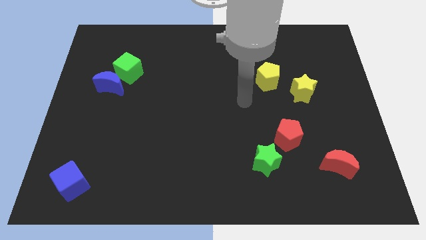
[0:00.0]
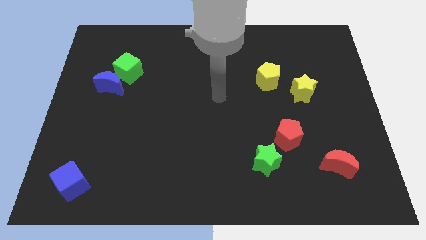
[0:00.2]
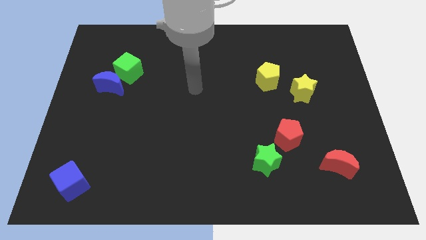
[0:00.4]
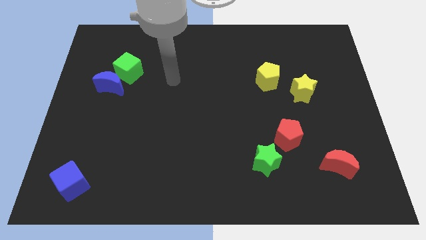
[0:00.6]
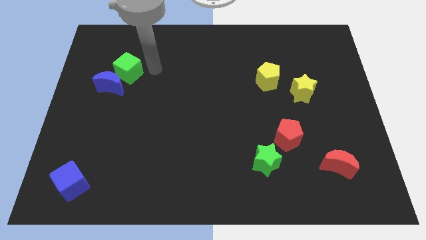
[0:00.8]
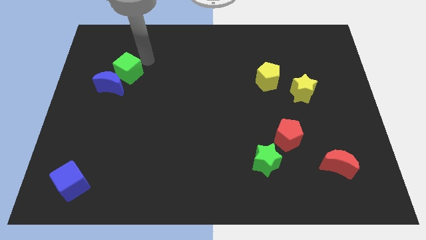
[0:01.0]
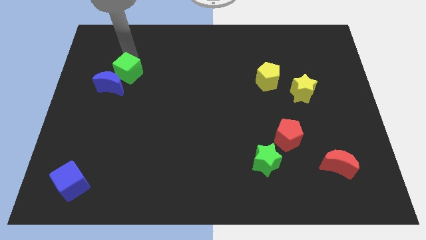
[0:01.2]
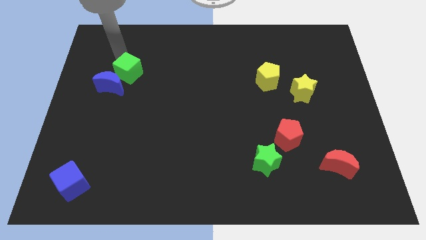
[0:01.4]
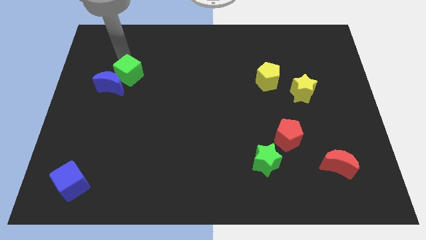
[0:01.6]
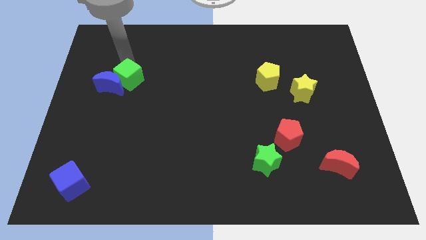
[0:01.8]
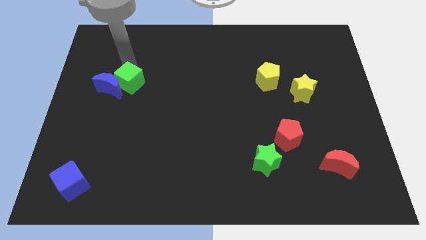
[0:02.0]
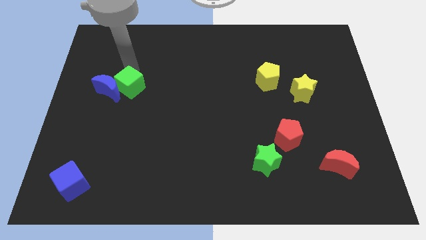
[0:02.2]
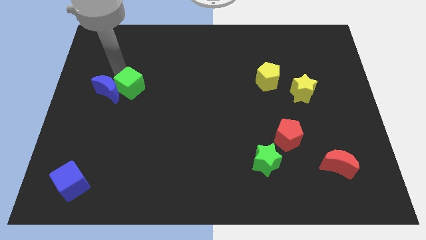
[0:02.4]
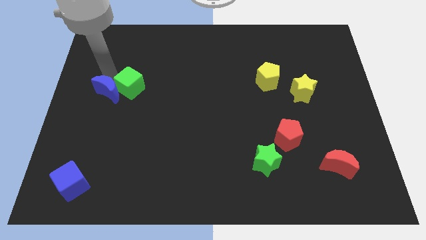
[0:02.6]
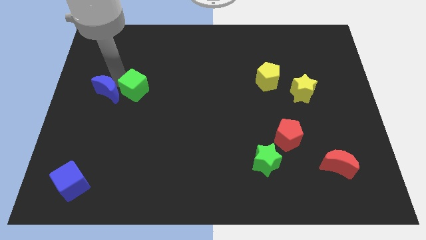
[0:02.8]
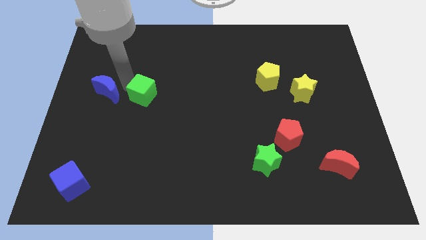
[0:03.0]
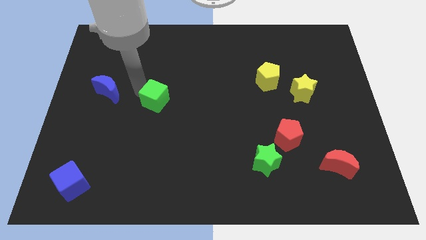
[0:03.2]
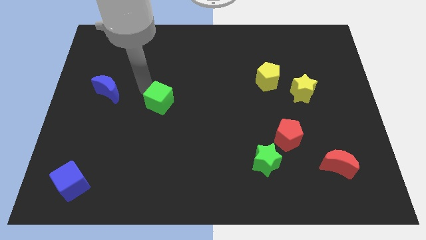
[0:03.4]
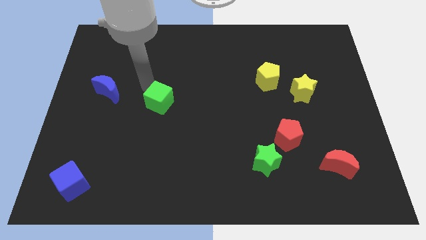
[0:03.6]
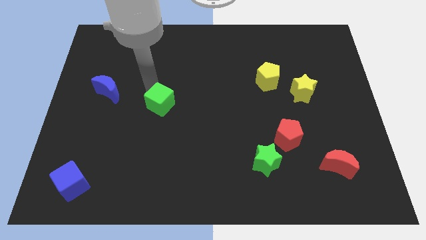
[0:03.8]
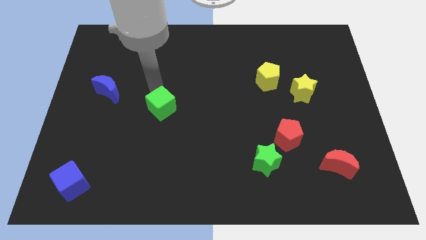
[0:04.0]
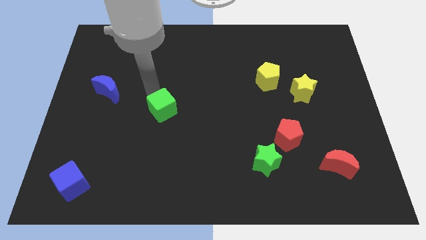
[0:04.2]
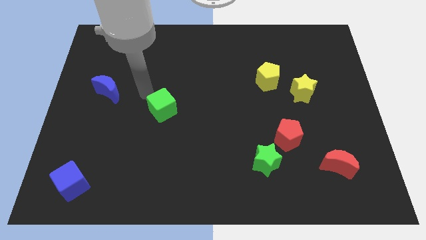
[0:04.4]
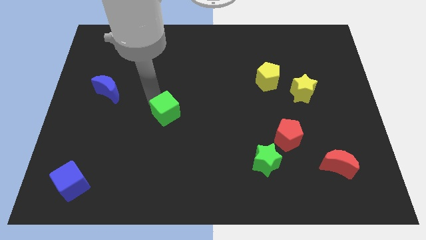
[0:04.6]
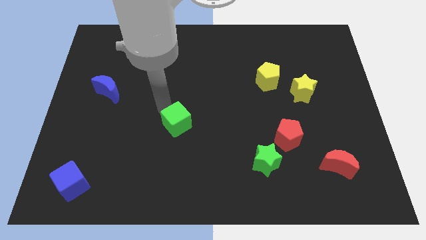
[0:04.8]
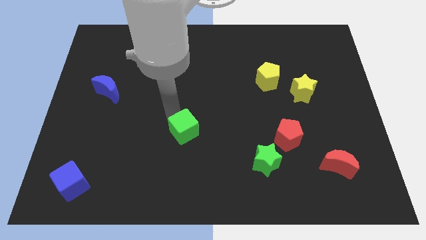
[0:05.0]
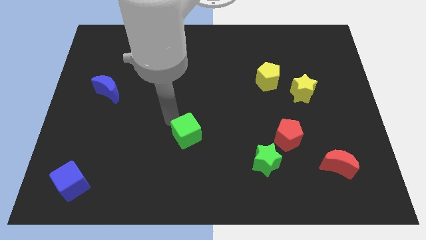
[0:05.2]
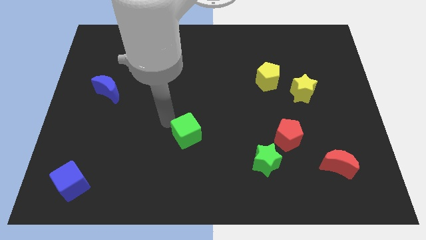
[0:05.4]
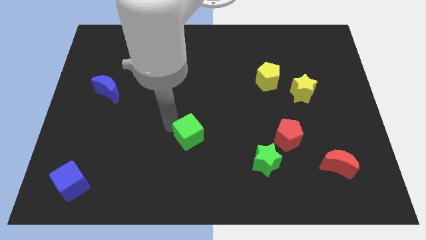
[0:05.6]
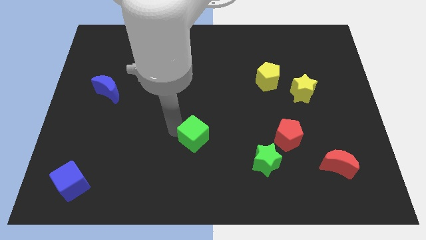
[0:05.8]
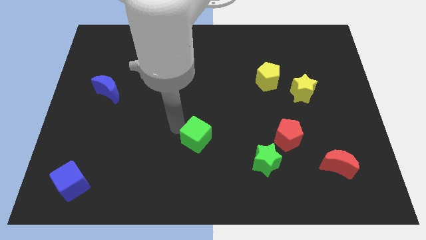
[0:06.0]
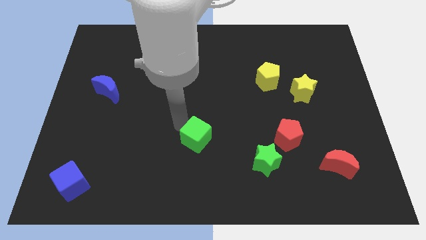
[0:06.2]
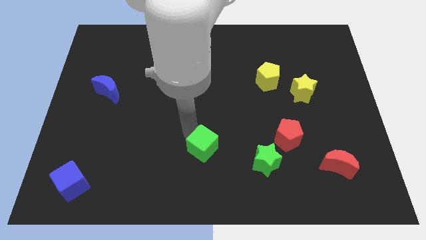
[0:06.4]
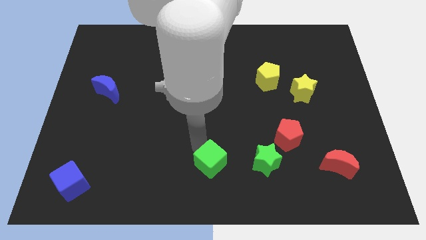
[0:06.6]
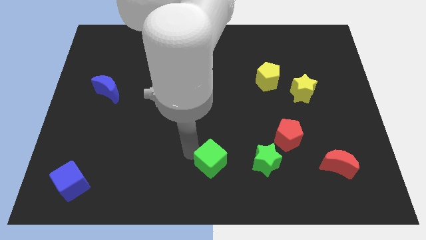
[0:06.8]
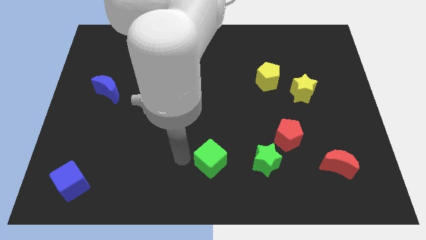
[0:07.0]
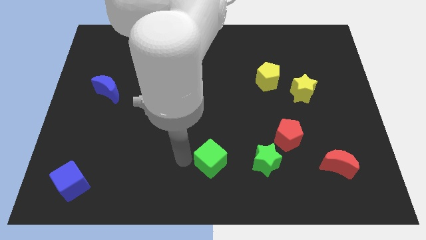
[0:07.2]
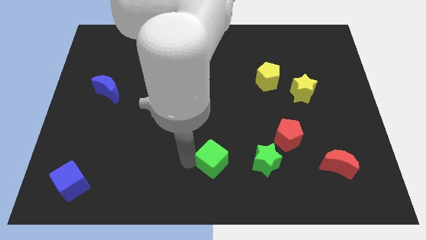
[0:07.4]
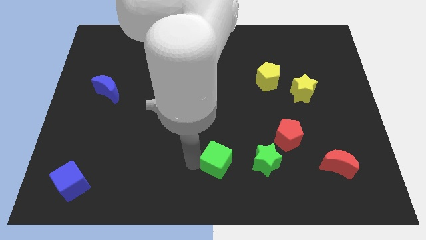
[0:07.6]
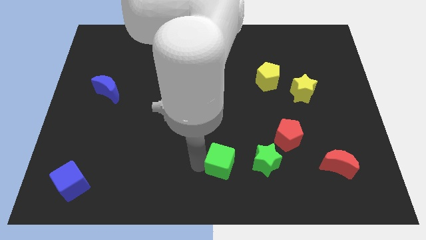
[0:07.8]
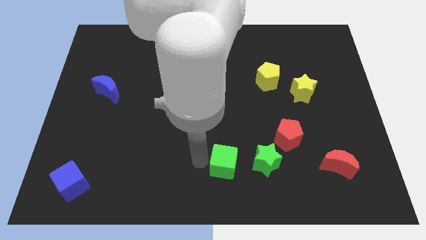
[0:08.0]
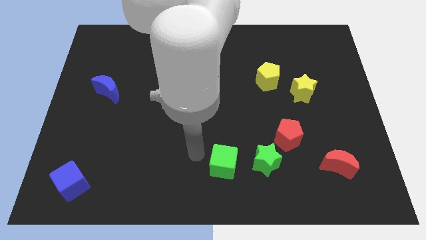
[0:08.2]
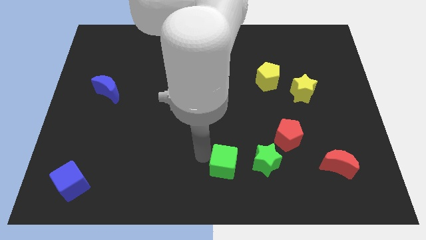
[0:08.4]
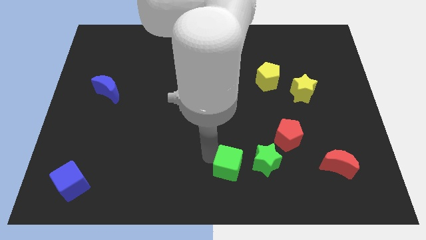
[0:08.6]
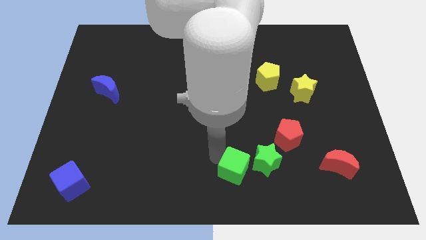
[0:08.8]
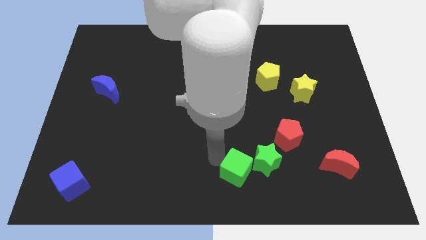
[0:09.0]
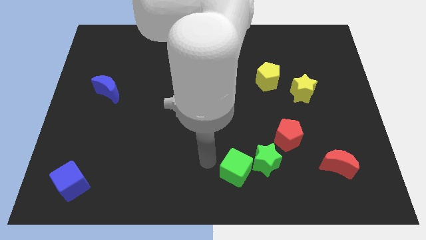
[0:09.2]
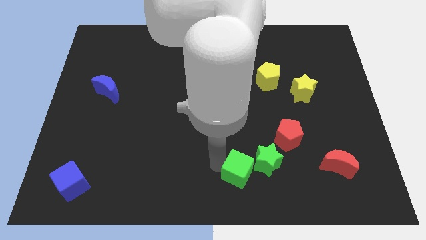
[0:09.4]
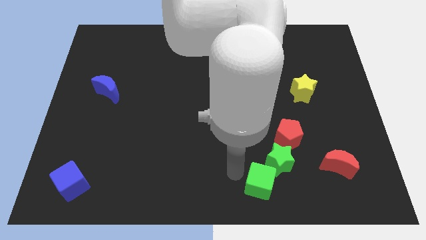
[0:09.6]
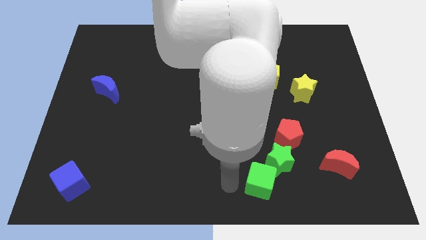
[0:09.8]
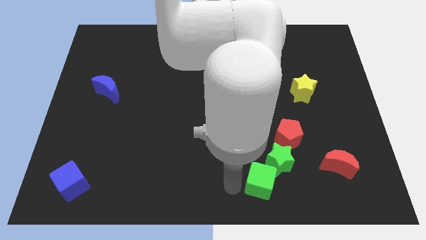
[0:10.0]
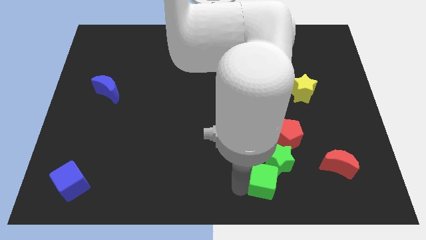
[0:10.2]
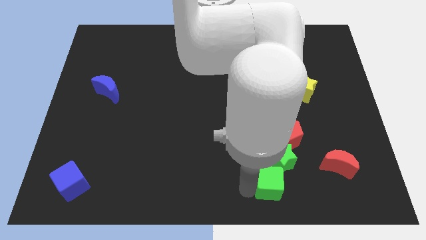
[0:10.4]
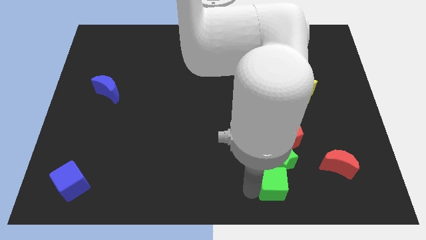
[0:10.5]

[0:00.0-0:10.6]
push the green cube below the red pentagon

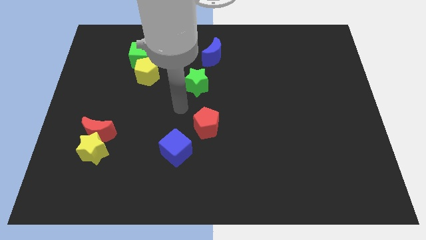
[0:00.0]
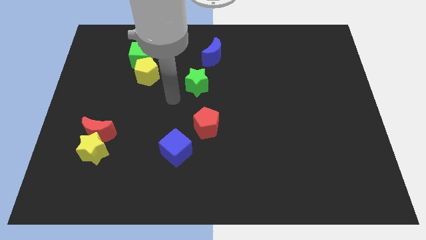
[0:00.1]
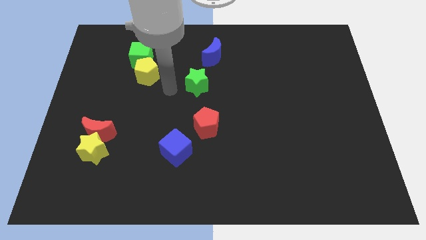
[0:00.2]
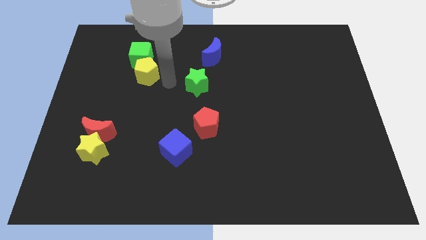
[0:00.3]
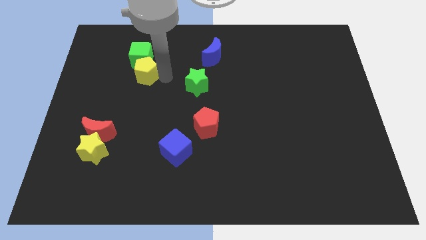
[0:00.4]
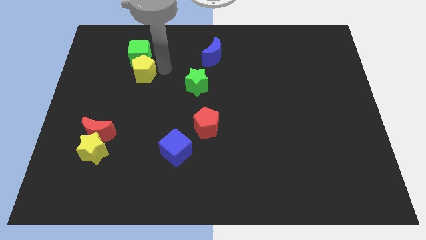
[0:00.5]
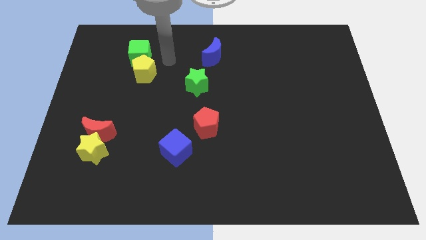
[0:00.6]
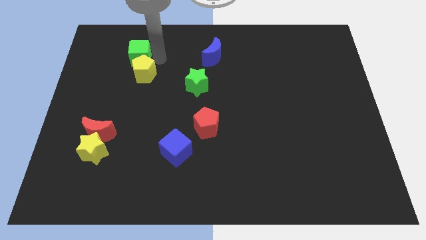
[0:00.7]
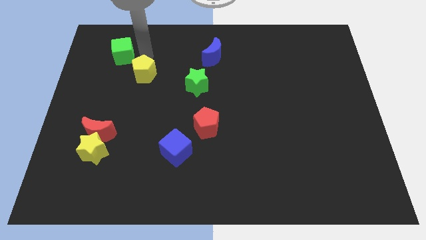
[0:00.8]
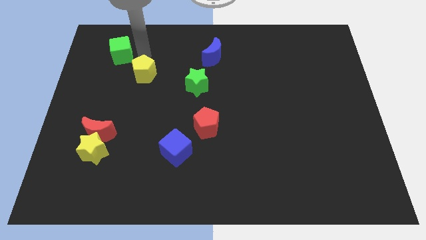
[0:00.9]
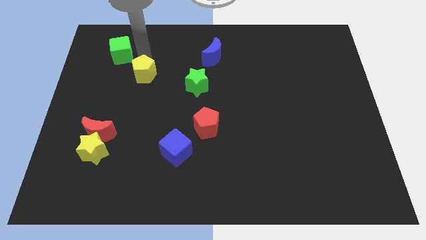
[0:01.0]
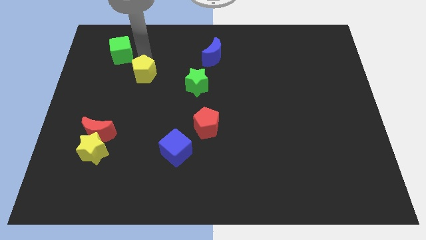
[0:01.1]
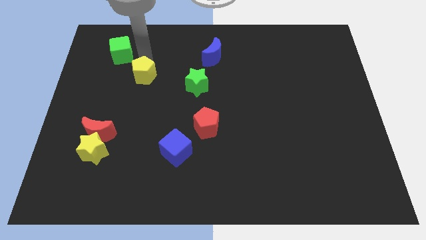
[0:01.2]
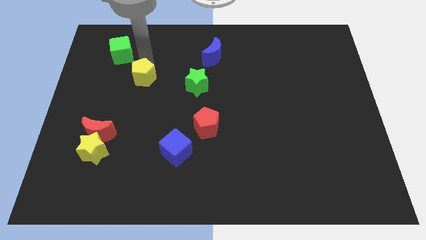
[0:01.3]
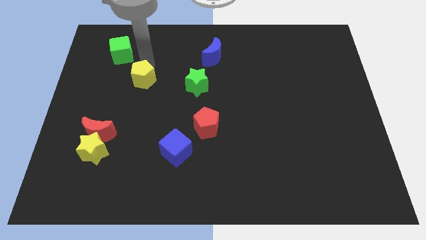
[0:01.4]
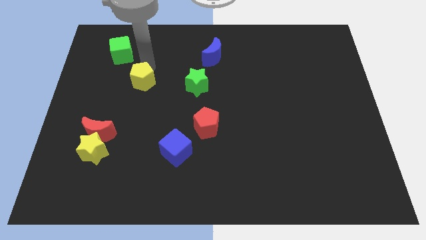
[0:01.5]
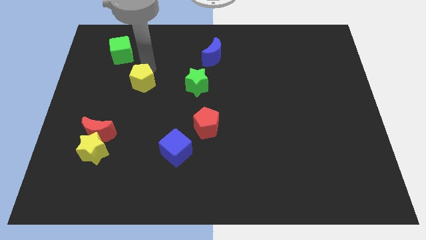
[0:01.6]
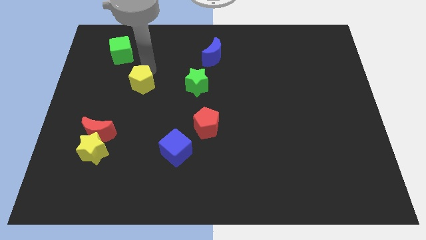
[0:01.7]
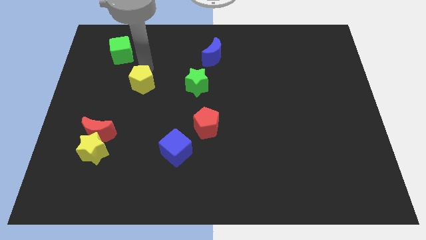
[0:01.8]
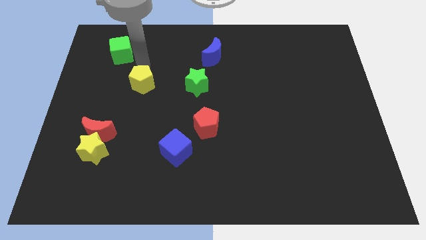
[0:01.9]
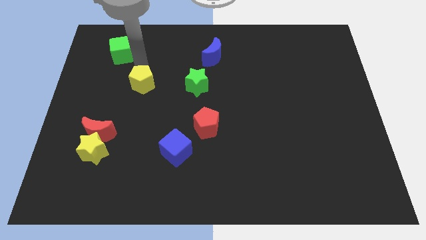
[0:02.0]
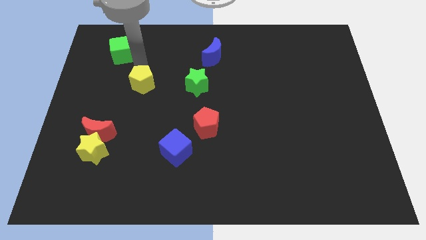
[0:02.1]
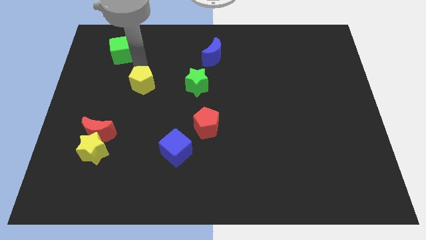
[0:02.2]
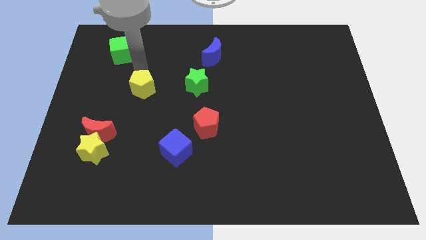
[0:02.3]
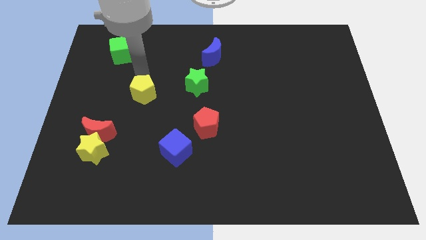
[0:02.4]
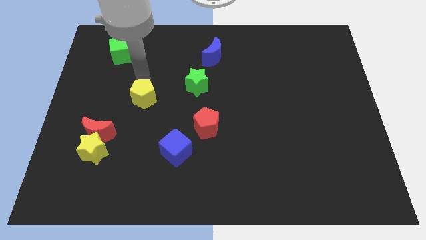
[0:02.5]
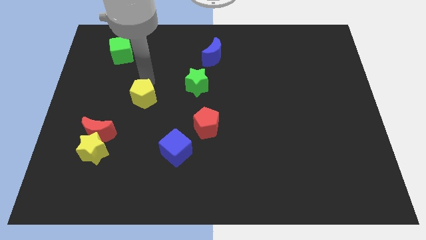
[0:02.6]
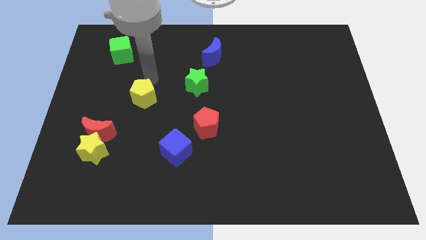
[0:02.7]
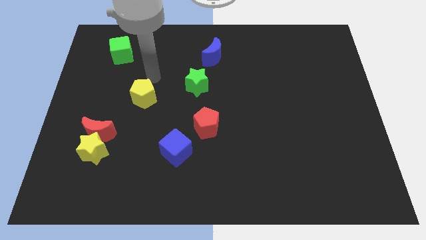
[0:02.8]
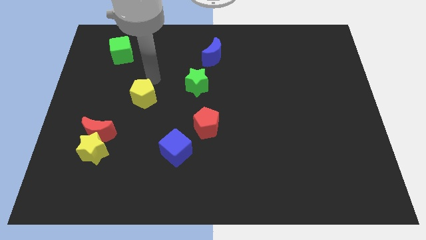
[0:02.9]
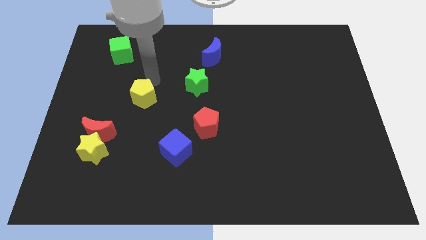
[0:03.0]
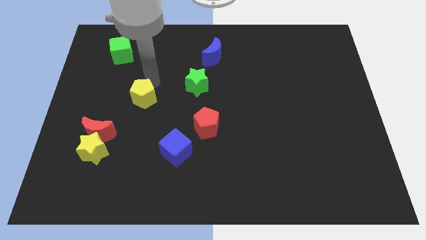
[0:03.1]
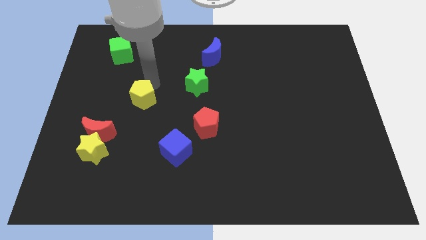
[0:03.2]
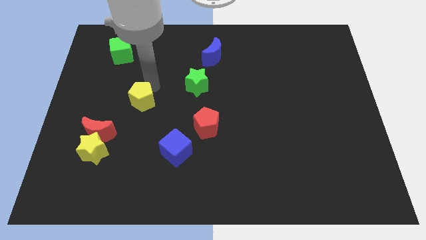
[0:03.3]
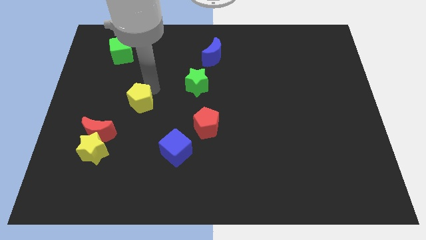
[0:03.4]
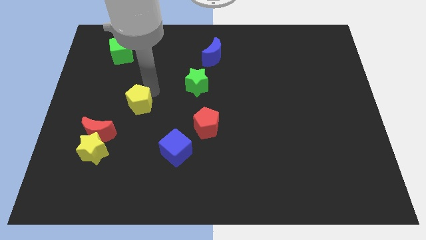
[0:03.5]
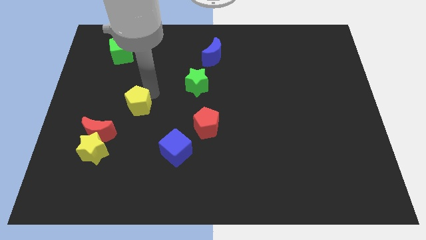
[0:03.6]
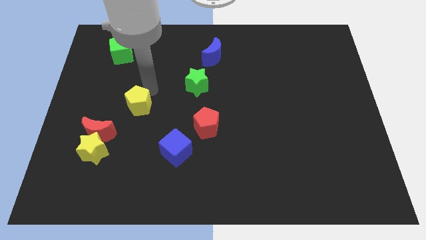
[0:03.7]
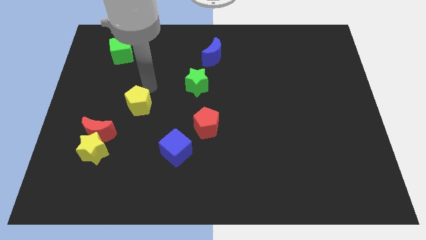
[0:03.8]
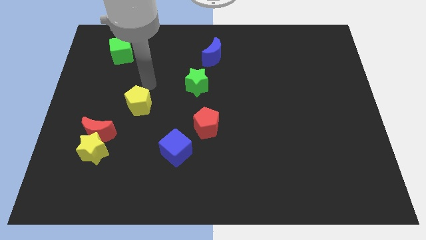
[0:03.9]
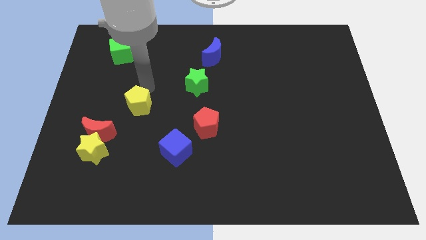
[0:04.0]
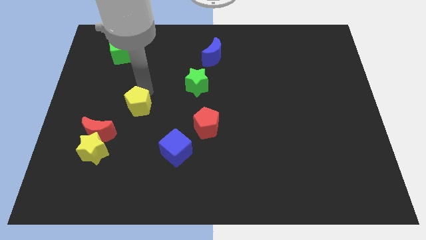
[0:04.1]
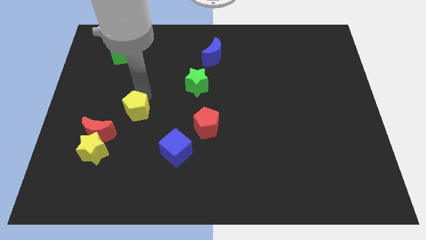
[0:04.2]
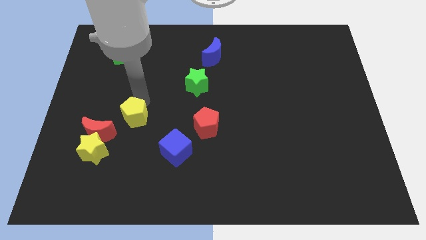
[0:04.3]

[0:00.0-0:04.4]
move the yellow pentagon to the top right of the yellow star
